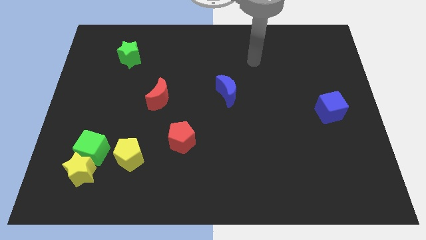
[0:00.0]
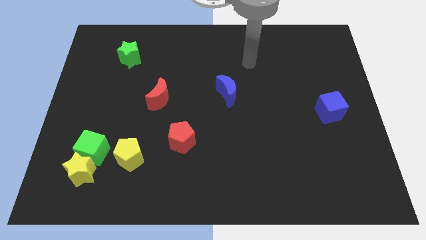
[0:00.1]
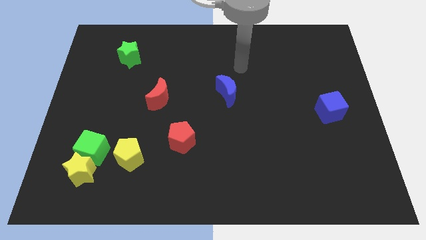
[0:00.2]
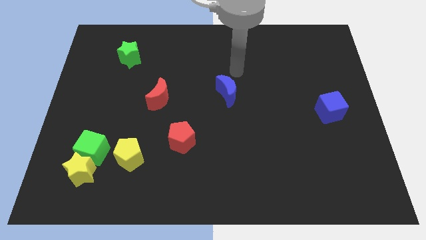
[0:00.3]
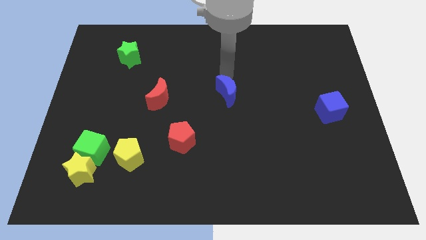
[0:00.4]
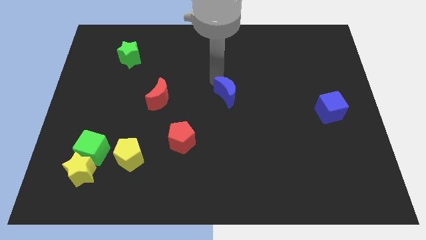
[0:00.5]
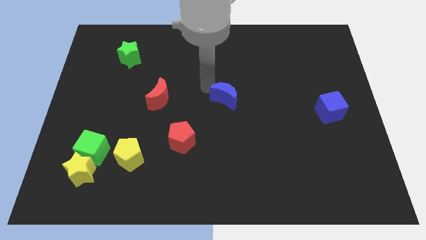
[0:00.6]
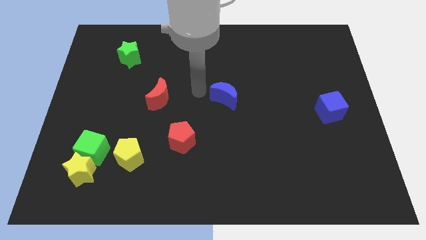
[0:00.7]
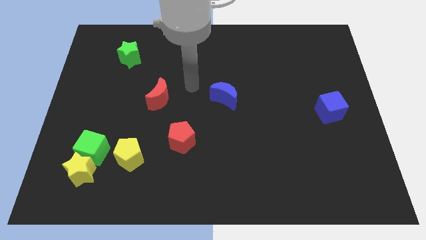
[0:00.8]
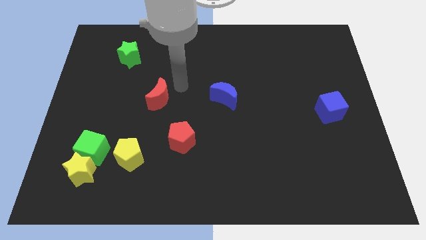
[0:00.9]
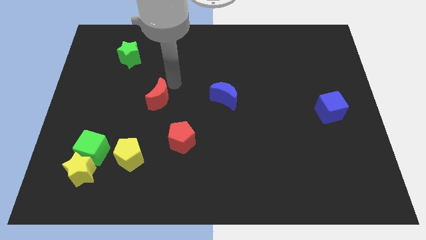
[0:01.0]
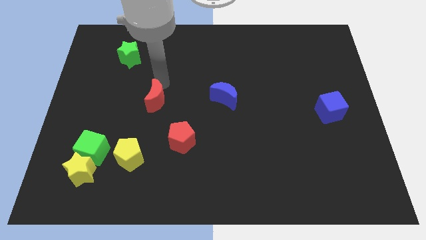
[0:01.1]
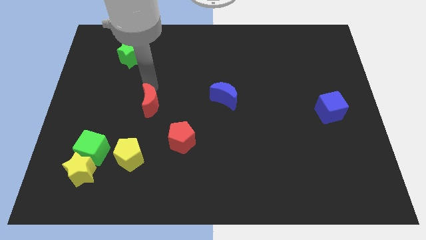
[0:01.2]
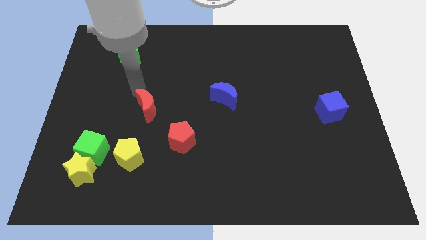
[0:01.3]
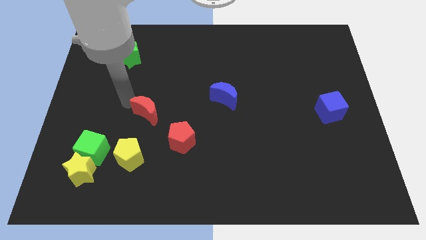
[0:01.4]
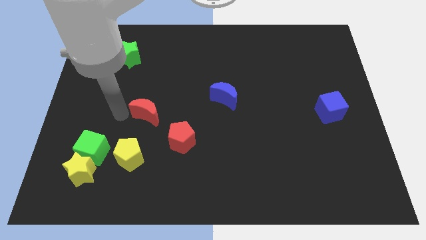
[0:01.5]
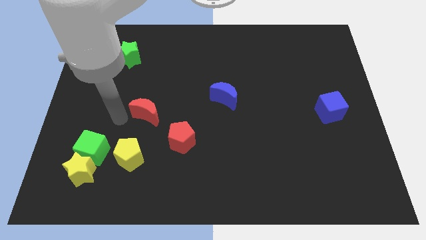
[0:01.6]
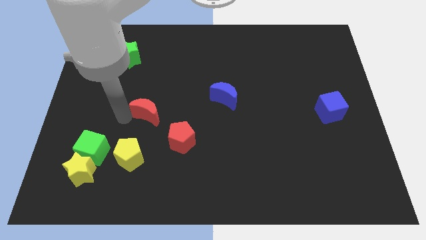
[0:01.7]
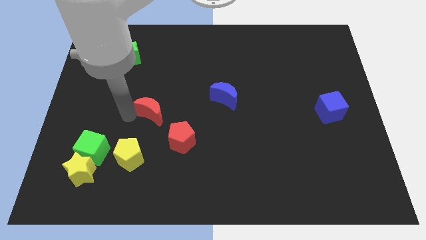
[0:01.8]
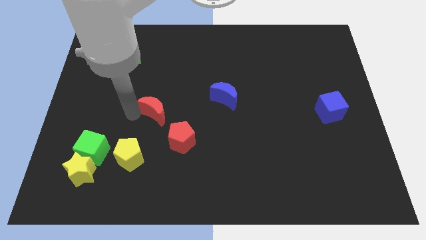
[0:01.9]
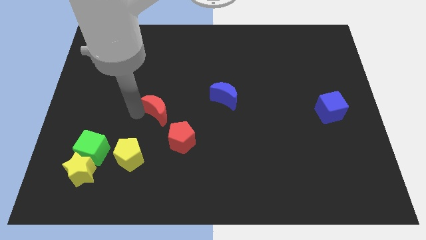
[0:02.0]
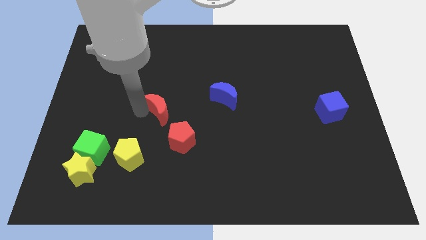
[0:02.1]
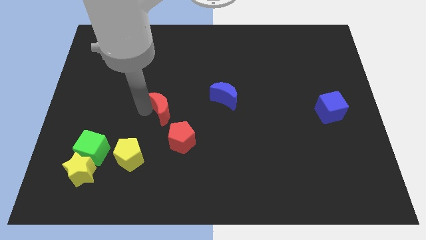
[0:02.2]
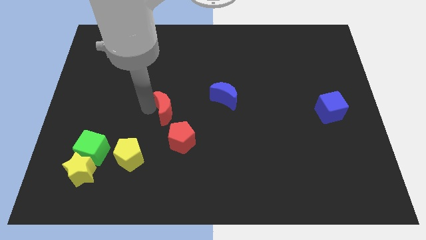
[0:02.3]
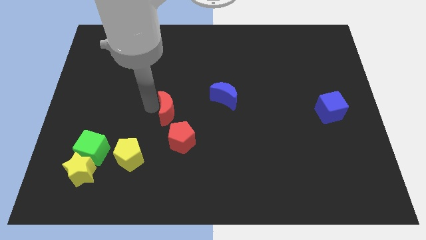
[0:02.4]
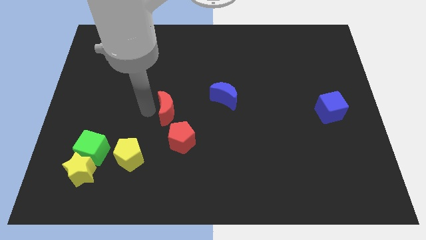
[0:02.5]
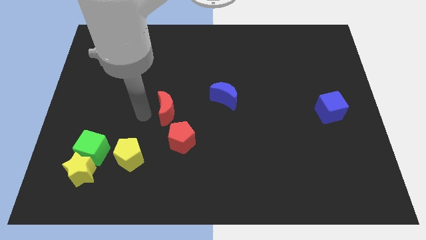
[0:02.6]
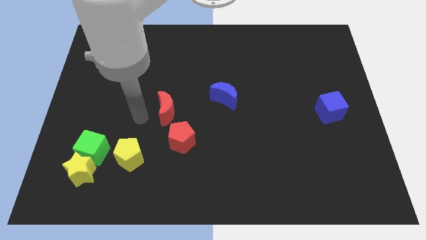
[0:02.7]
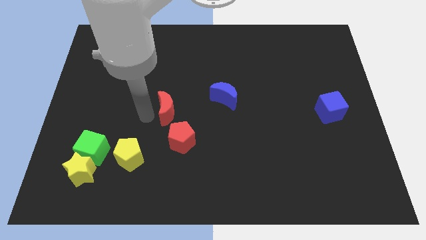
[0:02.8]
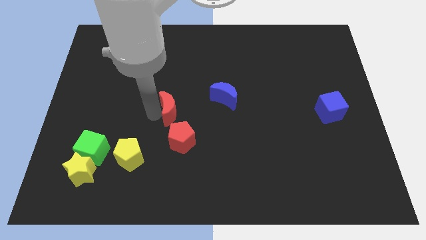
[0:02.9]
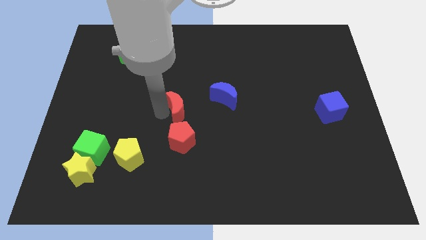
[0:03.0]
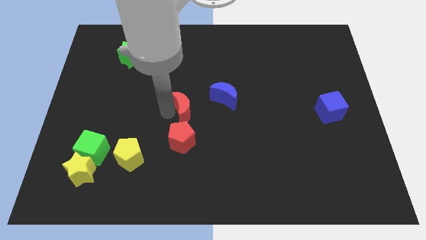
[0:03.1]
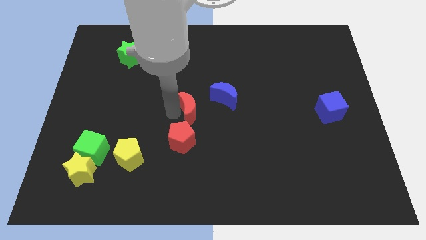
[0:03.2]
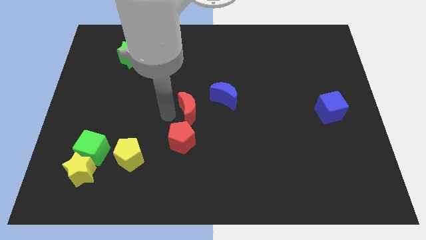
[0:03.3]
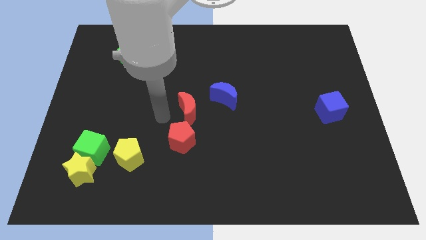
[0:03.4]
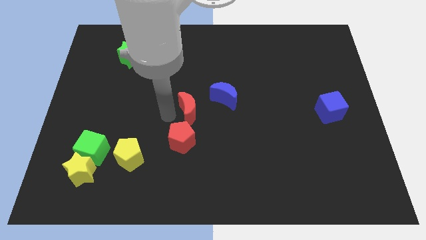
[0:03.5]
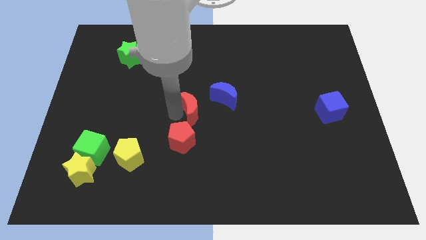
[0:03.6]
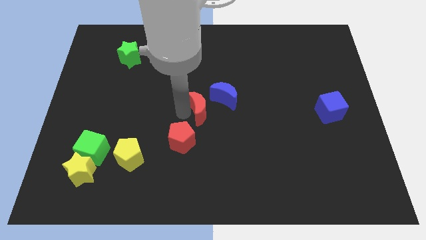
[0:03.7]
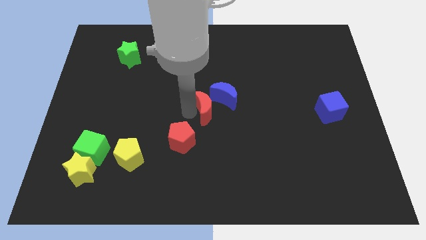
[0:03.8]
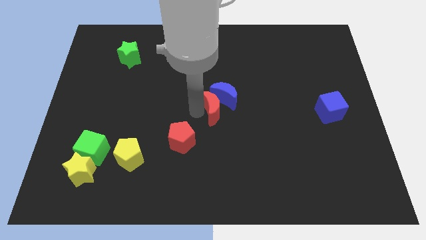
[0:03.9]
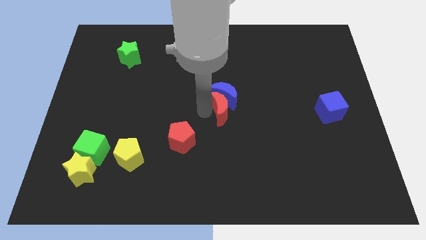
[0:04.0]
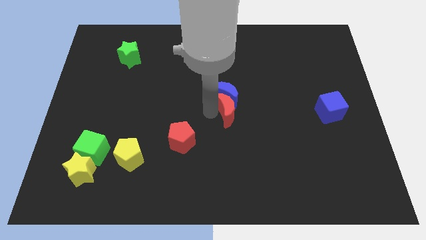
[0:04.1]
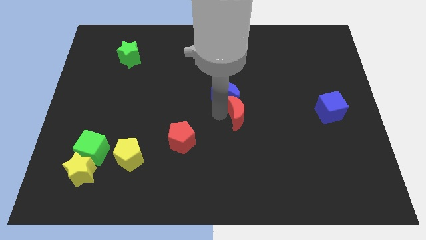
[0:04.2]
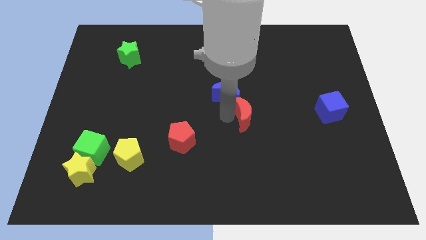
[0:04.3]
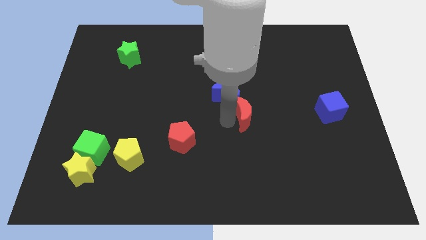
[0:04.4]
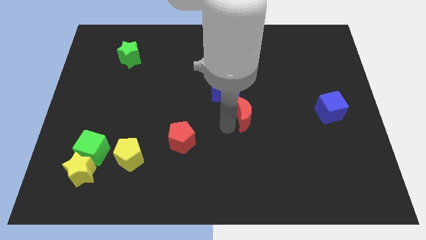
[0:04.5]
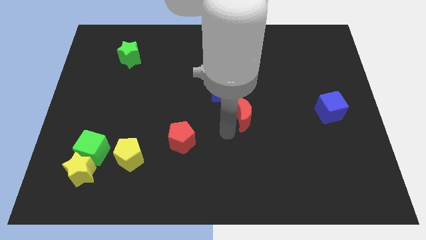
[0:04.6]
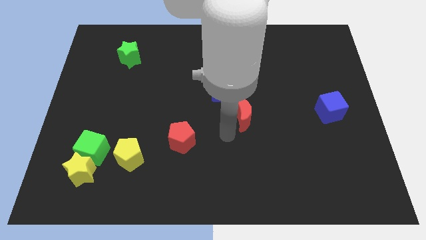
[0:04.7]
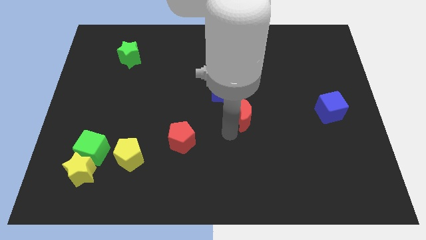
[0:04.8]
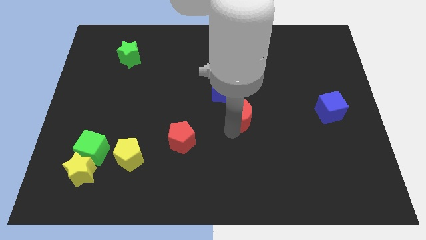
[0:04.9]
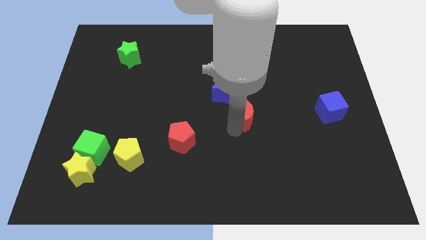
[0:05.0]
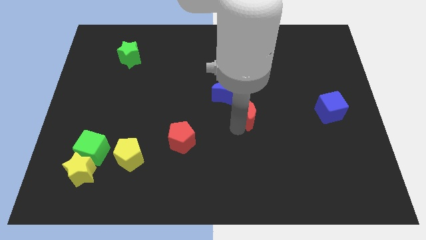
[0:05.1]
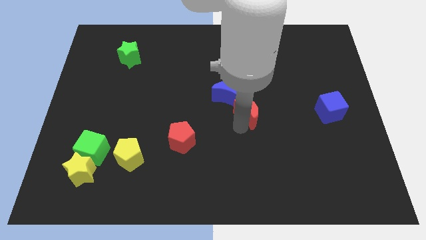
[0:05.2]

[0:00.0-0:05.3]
push the red moon right

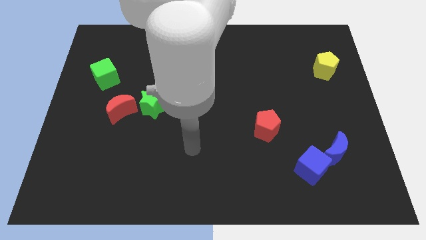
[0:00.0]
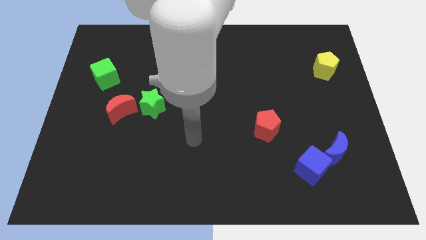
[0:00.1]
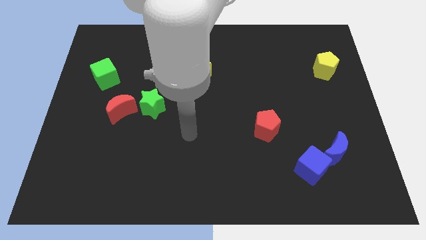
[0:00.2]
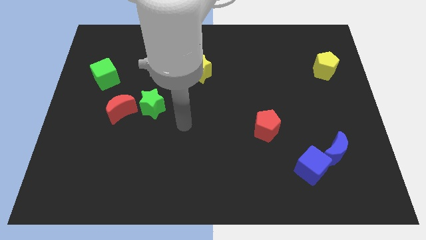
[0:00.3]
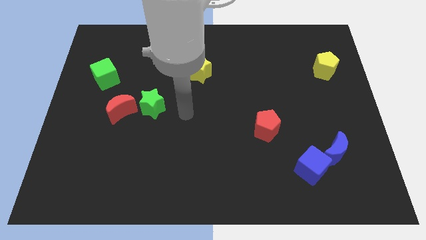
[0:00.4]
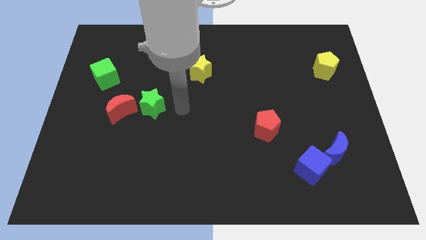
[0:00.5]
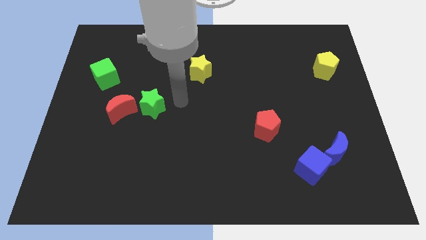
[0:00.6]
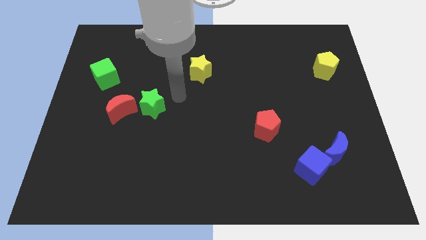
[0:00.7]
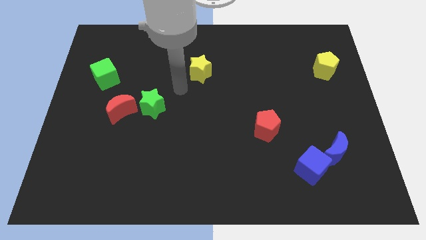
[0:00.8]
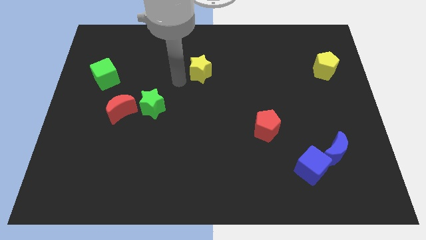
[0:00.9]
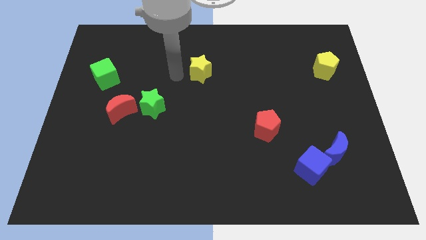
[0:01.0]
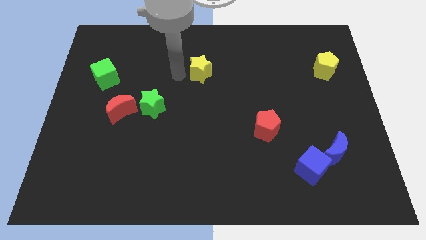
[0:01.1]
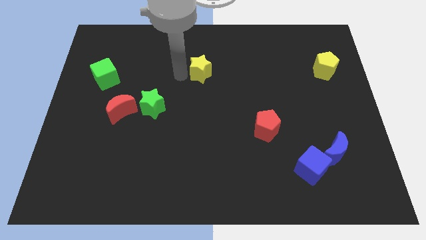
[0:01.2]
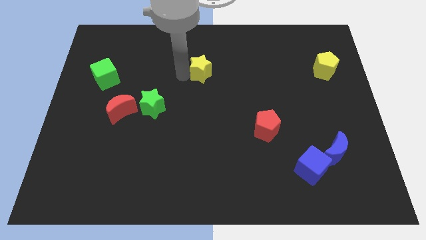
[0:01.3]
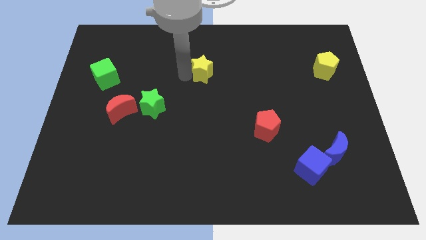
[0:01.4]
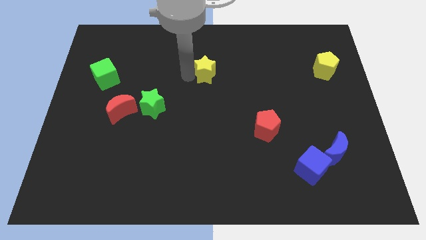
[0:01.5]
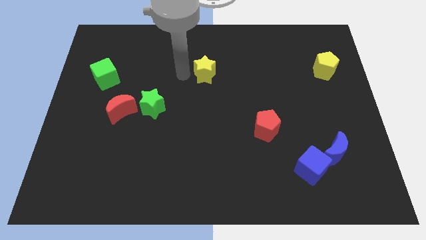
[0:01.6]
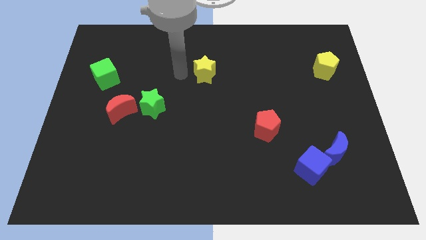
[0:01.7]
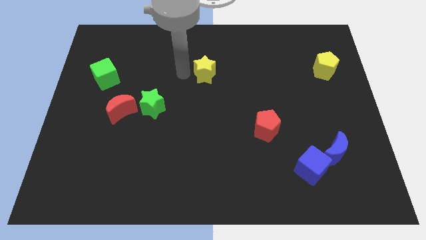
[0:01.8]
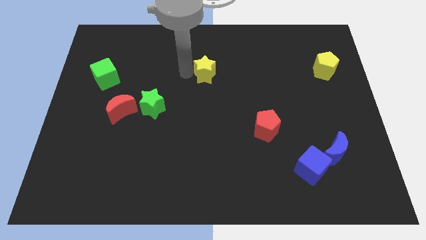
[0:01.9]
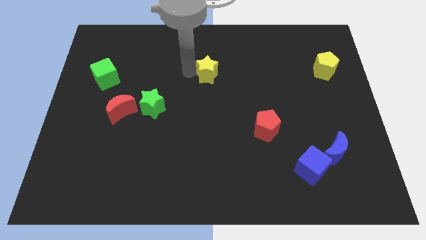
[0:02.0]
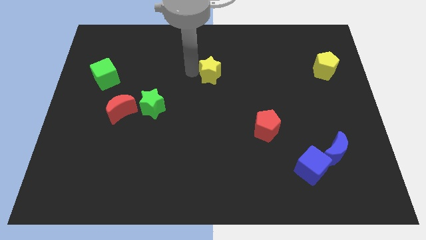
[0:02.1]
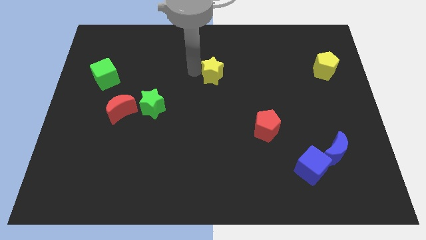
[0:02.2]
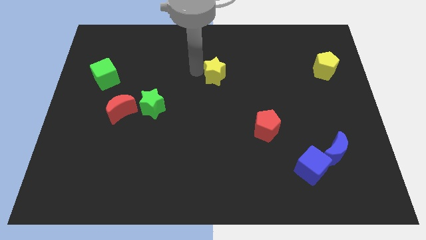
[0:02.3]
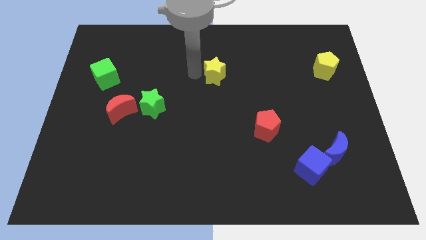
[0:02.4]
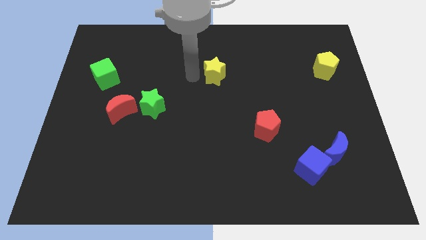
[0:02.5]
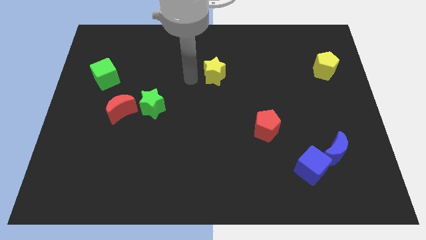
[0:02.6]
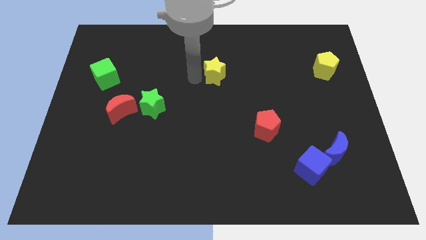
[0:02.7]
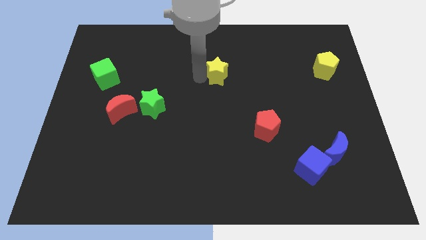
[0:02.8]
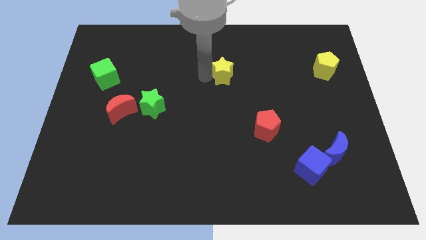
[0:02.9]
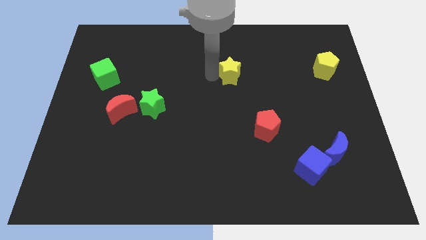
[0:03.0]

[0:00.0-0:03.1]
slide the yellow star right a little bit
